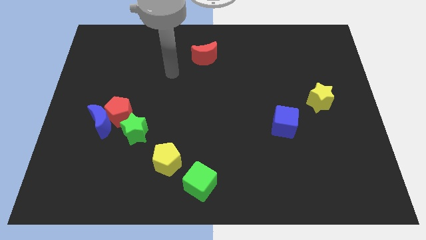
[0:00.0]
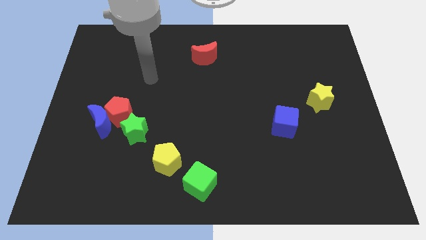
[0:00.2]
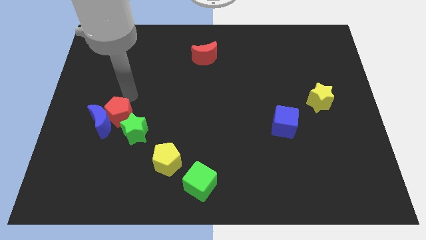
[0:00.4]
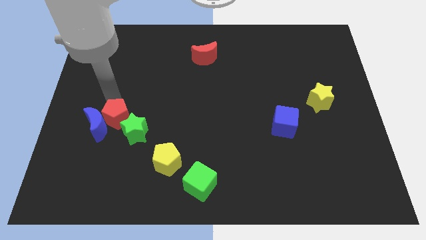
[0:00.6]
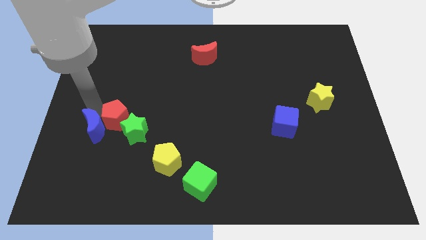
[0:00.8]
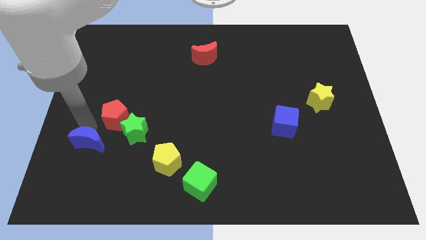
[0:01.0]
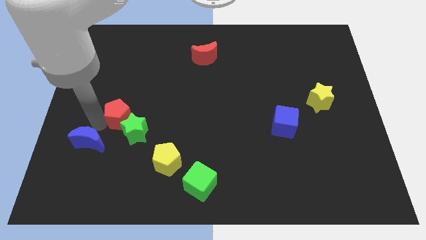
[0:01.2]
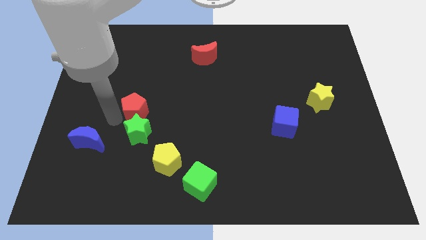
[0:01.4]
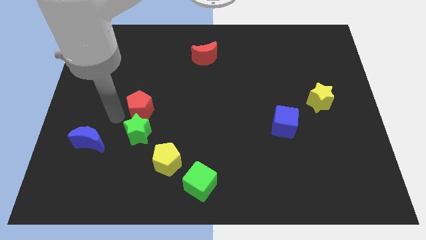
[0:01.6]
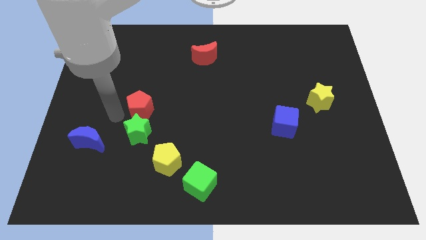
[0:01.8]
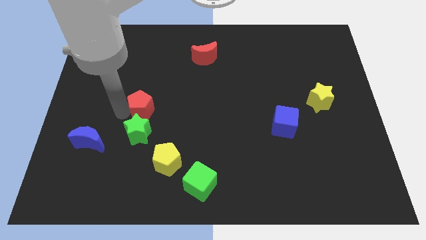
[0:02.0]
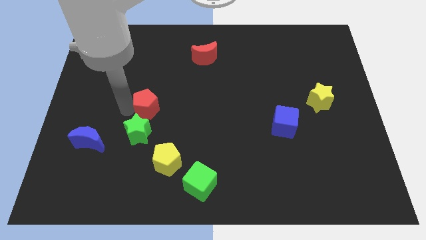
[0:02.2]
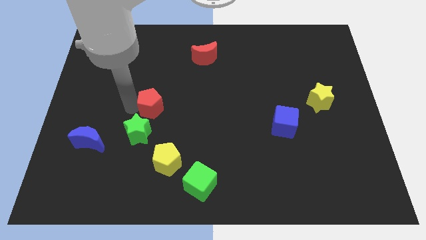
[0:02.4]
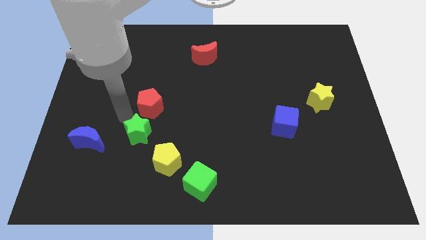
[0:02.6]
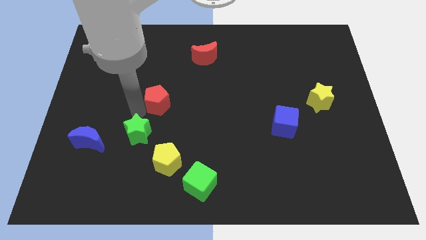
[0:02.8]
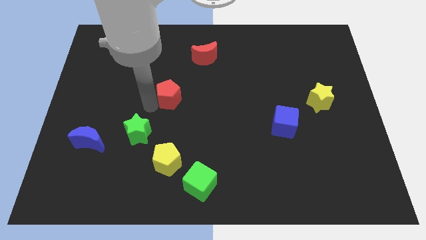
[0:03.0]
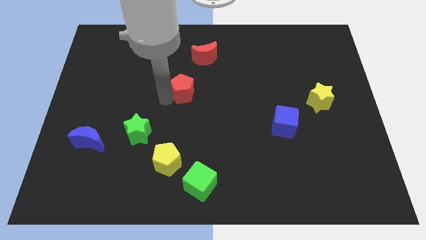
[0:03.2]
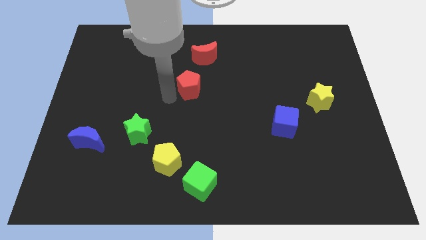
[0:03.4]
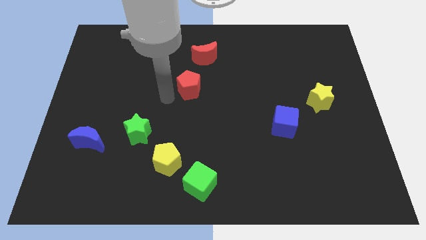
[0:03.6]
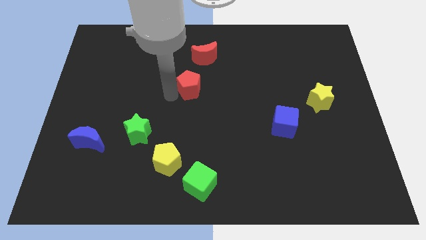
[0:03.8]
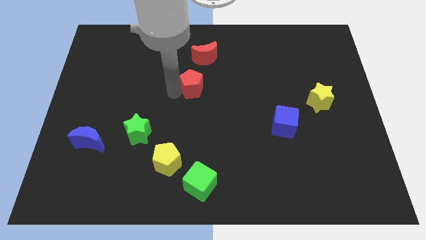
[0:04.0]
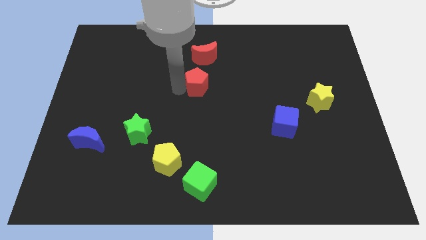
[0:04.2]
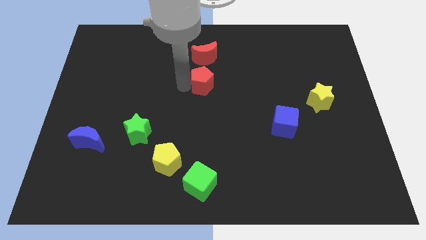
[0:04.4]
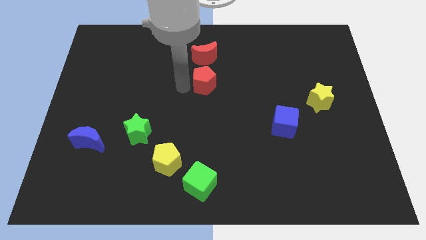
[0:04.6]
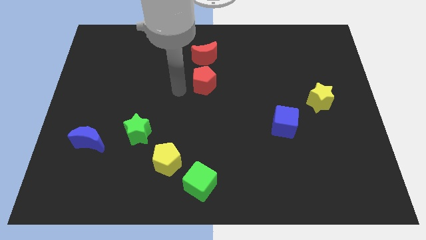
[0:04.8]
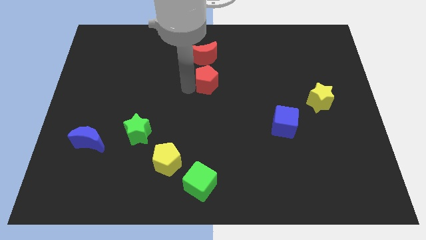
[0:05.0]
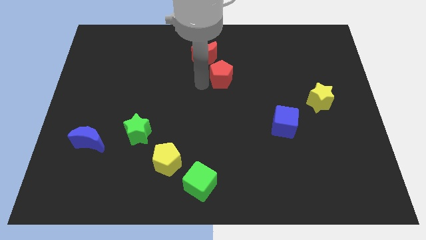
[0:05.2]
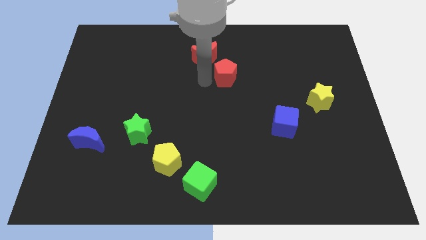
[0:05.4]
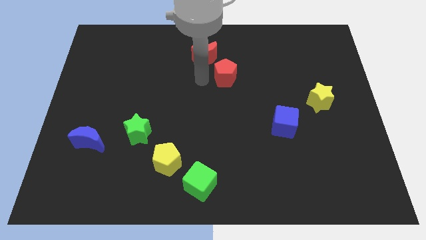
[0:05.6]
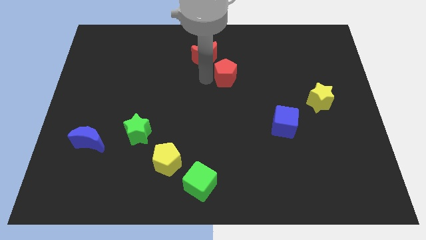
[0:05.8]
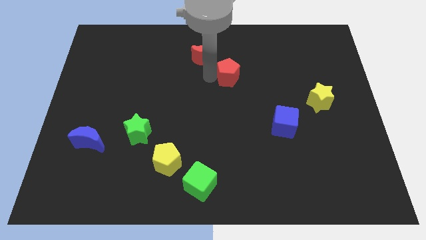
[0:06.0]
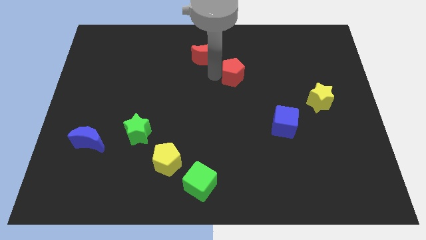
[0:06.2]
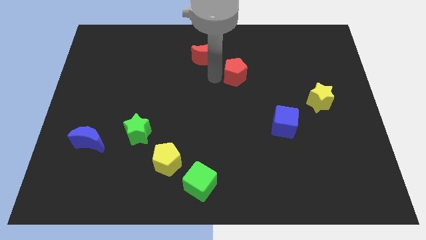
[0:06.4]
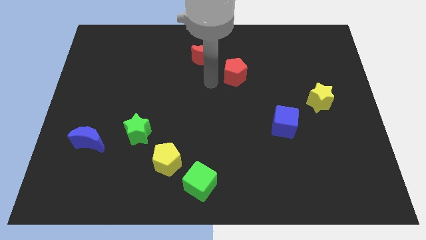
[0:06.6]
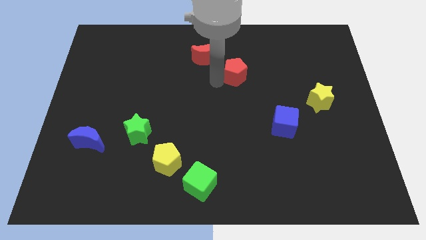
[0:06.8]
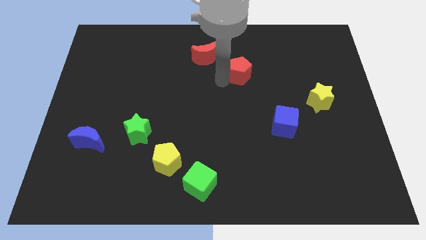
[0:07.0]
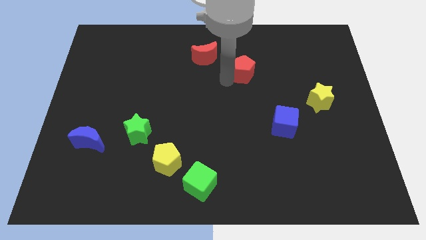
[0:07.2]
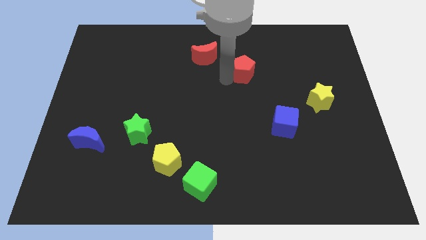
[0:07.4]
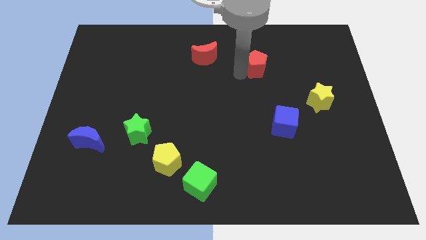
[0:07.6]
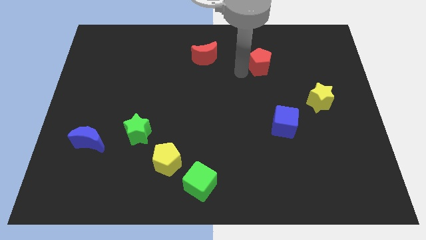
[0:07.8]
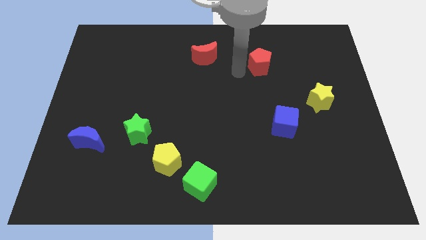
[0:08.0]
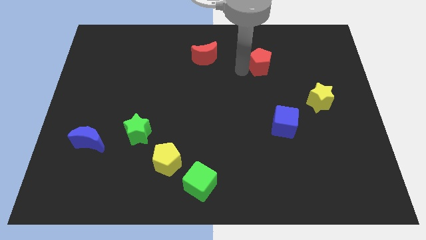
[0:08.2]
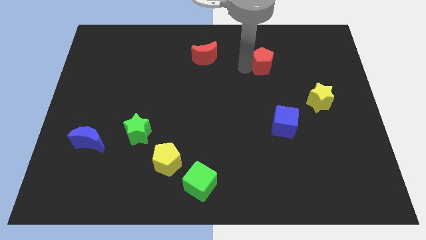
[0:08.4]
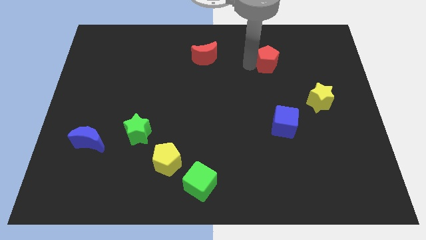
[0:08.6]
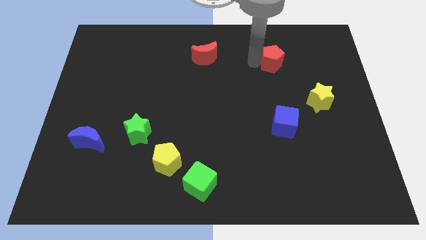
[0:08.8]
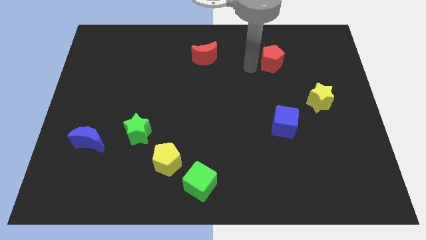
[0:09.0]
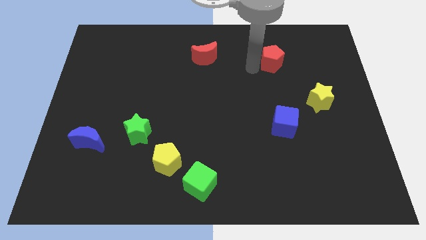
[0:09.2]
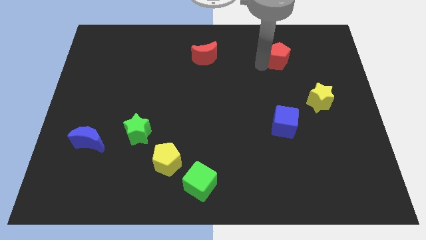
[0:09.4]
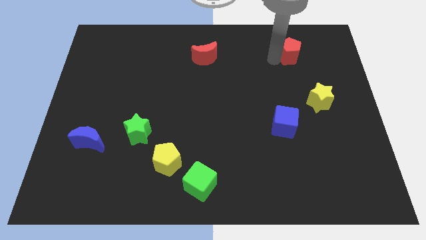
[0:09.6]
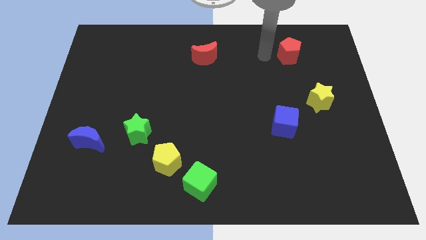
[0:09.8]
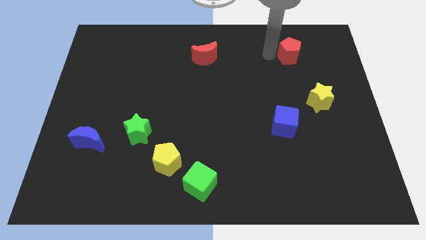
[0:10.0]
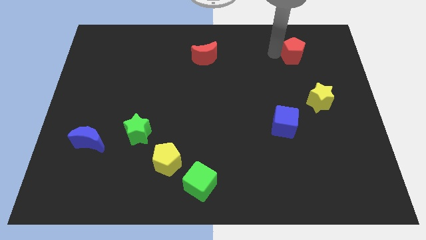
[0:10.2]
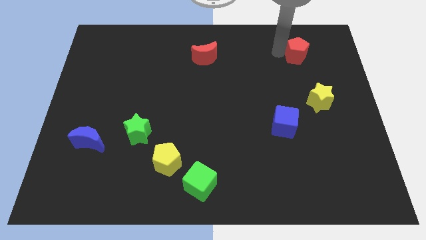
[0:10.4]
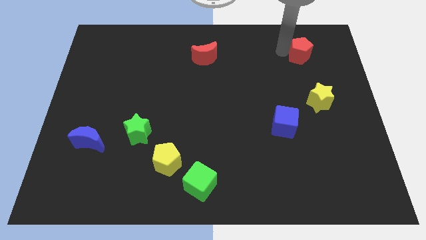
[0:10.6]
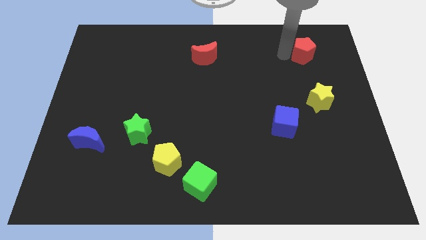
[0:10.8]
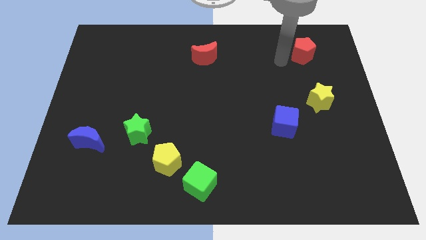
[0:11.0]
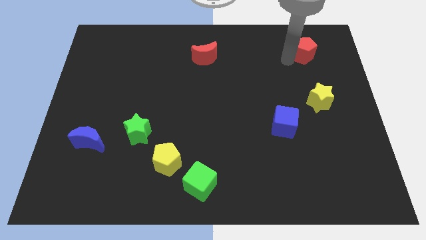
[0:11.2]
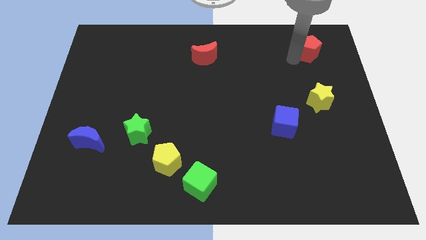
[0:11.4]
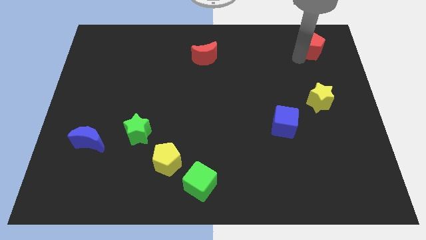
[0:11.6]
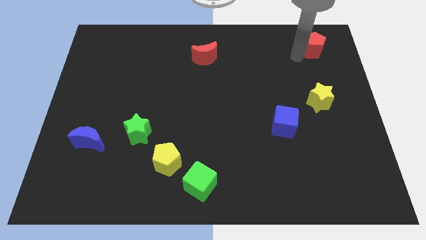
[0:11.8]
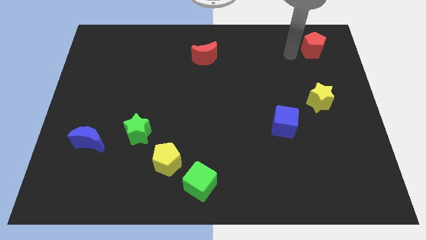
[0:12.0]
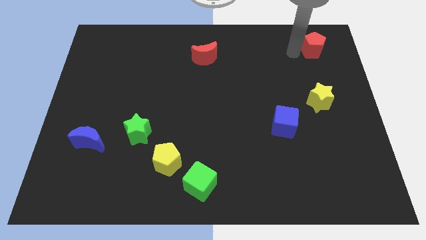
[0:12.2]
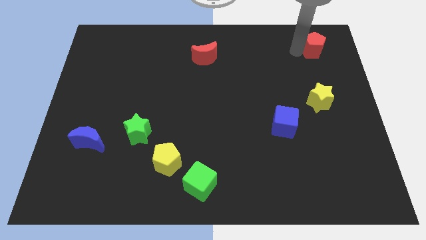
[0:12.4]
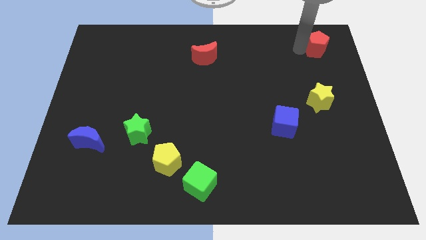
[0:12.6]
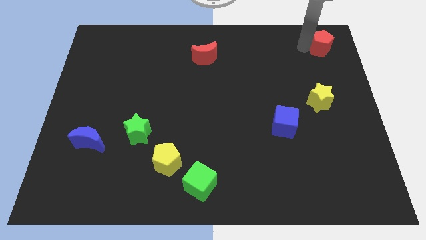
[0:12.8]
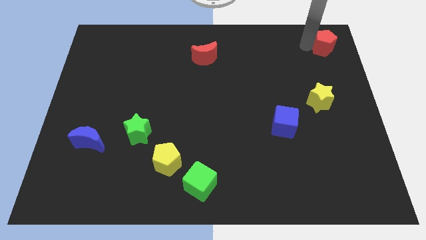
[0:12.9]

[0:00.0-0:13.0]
push the red pentagon to the upper right corner

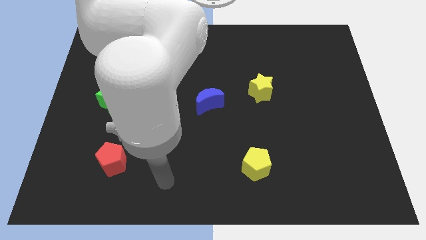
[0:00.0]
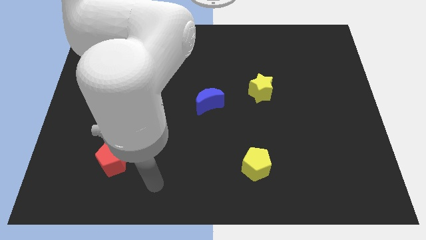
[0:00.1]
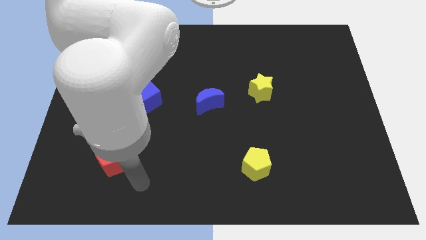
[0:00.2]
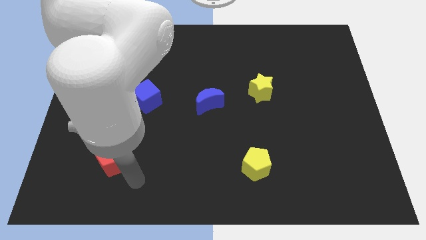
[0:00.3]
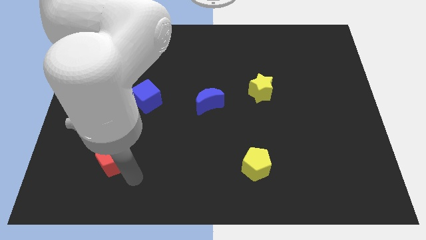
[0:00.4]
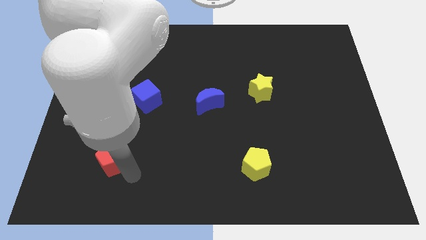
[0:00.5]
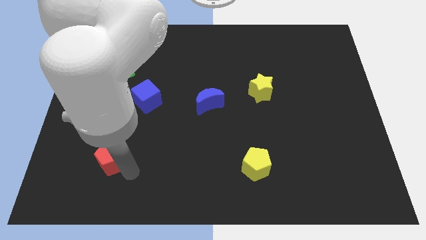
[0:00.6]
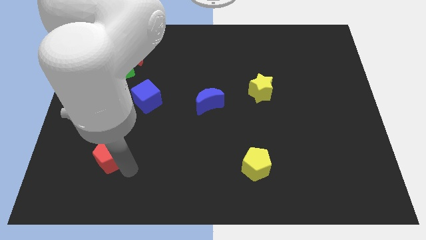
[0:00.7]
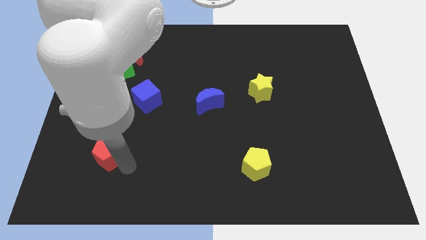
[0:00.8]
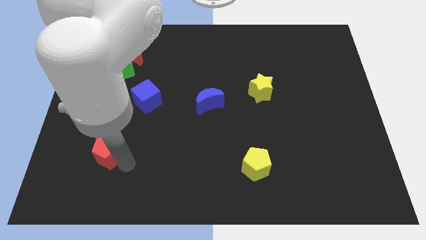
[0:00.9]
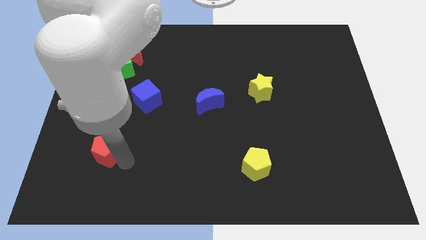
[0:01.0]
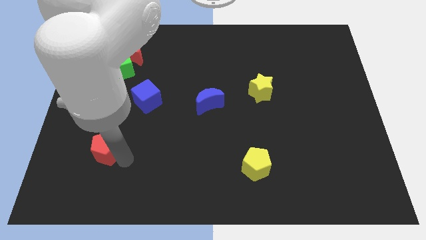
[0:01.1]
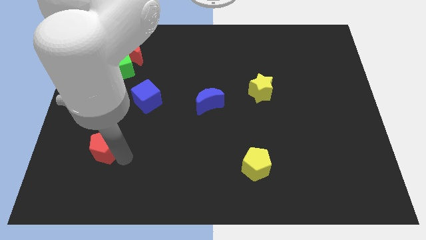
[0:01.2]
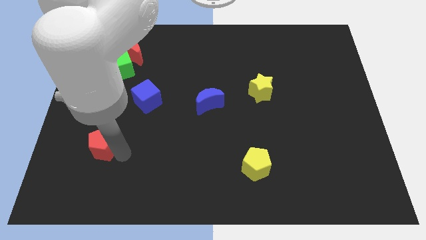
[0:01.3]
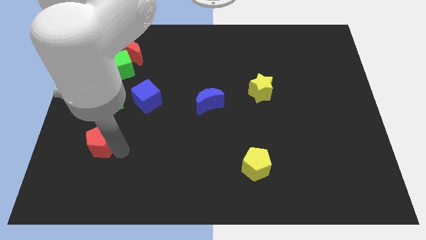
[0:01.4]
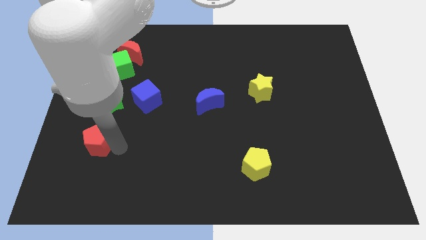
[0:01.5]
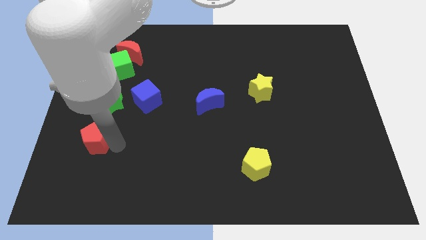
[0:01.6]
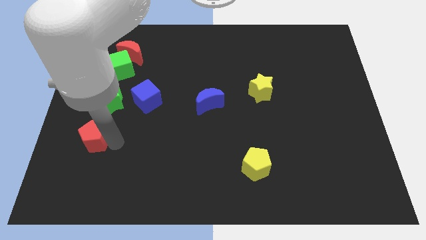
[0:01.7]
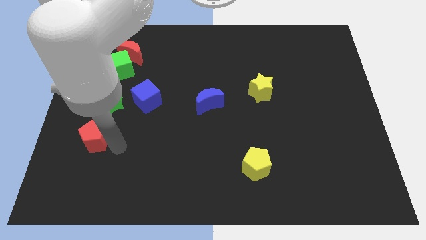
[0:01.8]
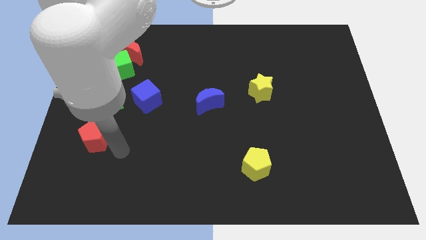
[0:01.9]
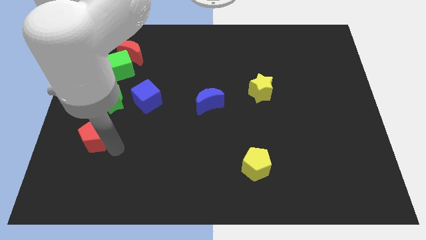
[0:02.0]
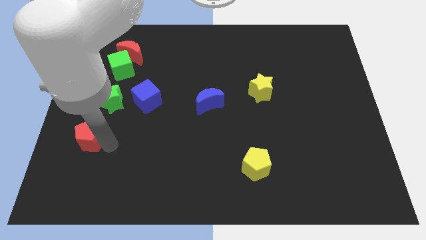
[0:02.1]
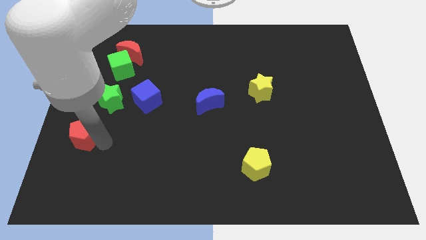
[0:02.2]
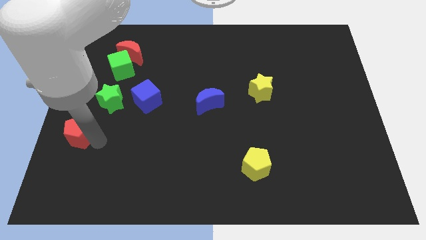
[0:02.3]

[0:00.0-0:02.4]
push the red pentagon to the left side of the board
